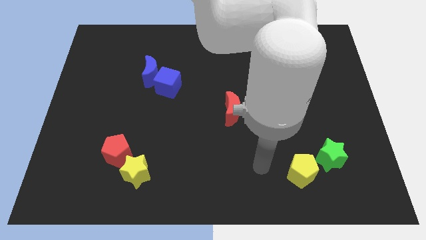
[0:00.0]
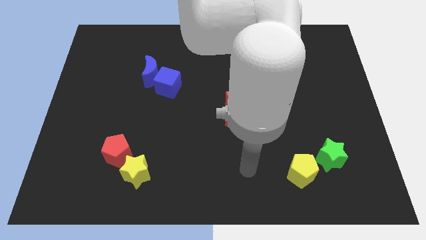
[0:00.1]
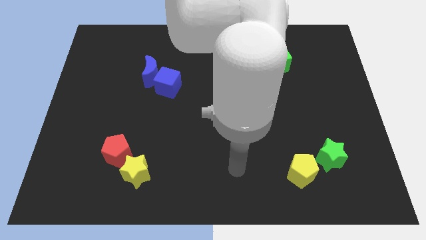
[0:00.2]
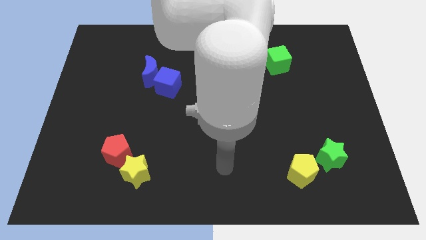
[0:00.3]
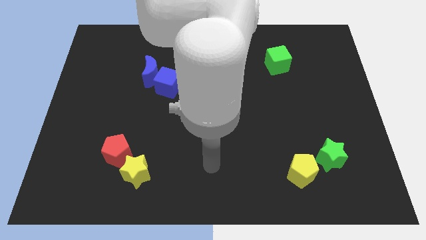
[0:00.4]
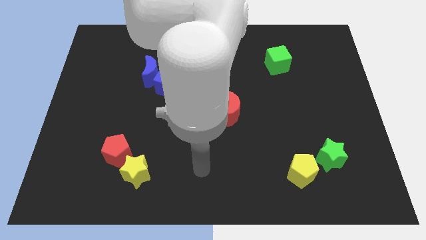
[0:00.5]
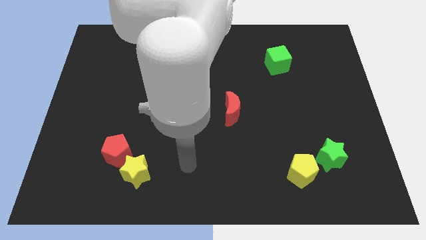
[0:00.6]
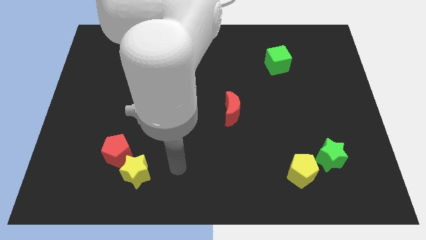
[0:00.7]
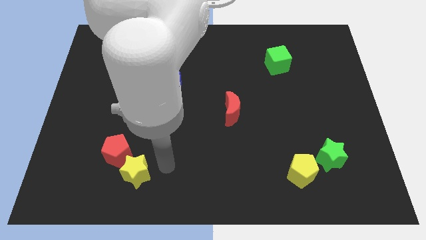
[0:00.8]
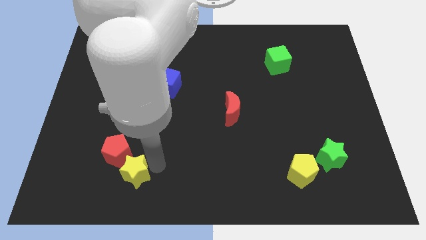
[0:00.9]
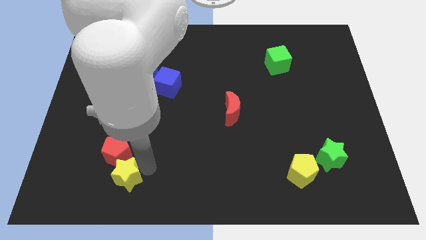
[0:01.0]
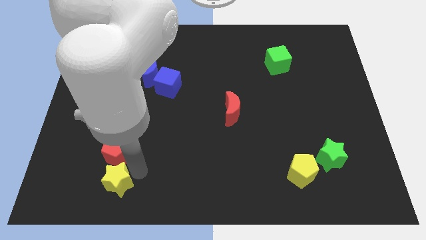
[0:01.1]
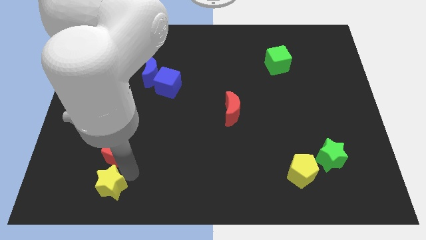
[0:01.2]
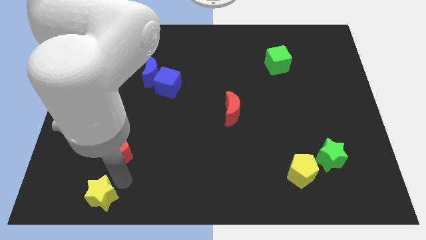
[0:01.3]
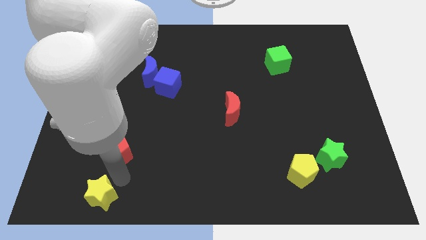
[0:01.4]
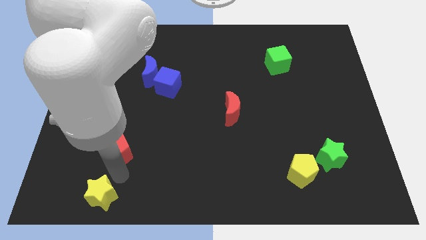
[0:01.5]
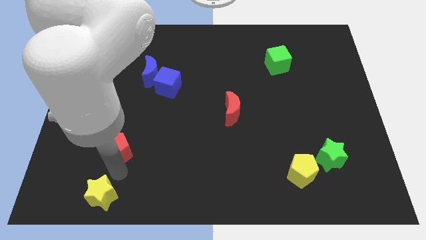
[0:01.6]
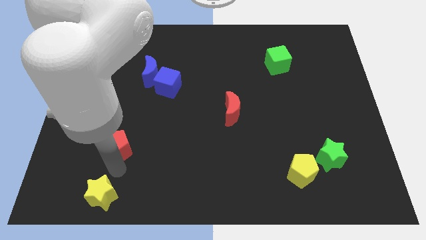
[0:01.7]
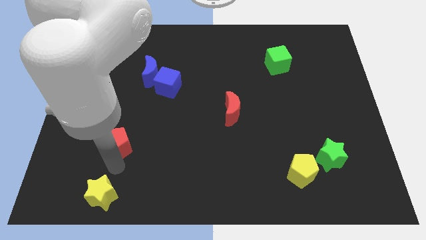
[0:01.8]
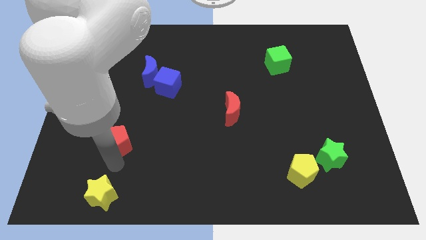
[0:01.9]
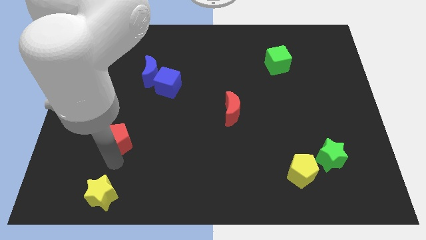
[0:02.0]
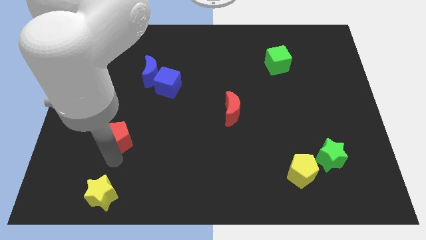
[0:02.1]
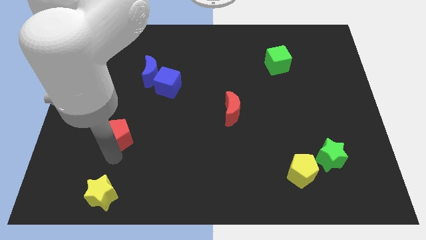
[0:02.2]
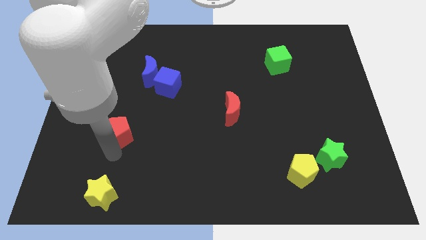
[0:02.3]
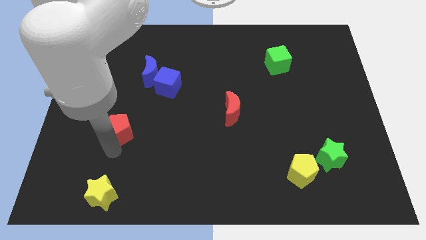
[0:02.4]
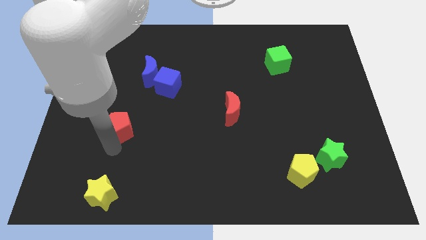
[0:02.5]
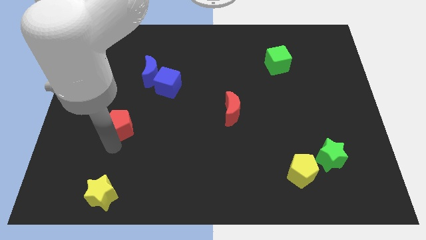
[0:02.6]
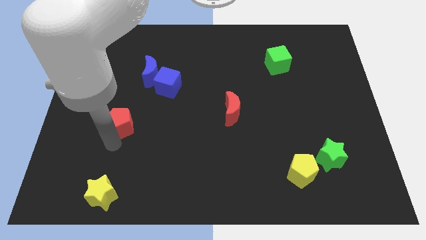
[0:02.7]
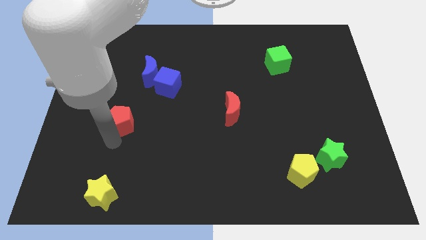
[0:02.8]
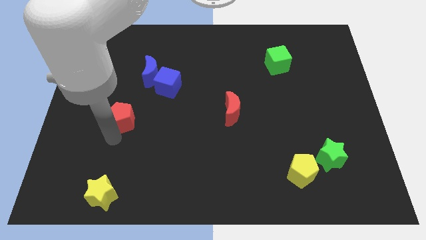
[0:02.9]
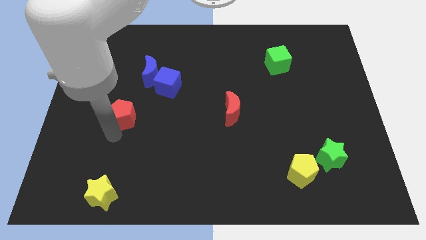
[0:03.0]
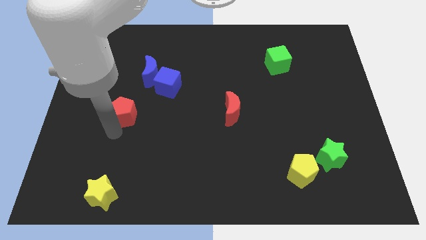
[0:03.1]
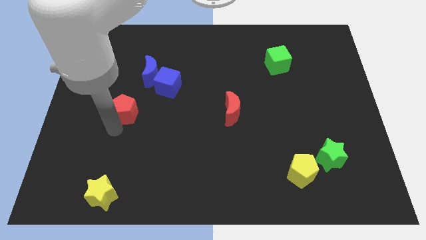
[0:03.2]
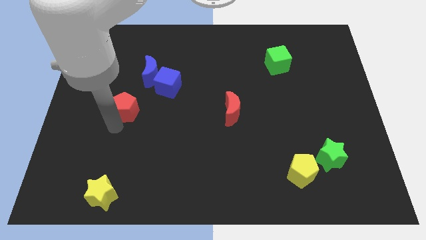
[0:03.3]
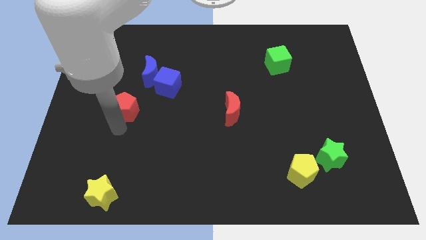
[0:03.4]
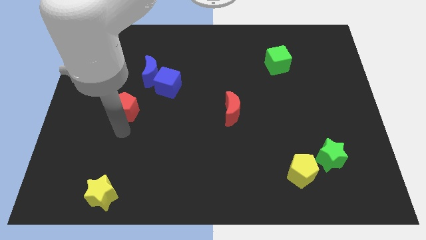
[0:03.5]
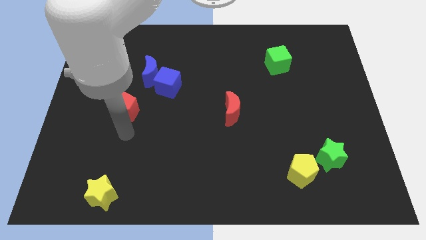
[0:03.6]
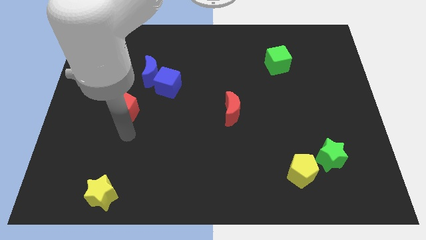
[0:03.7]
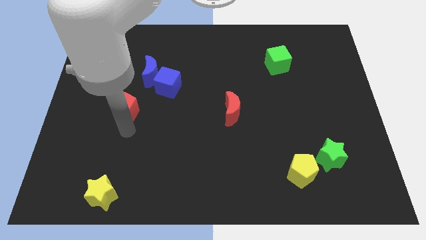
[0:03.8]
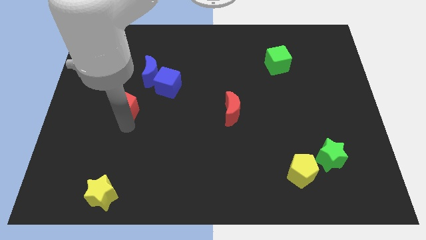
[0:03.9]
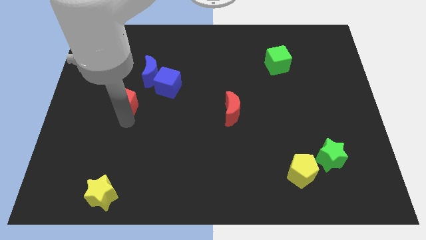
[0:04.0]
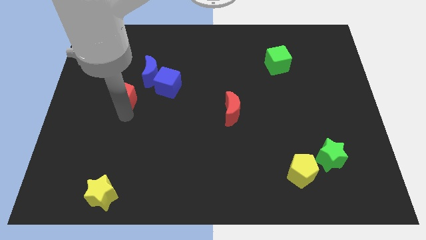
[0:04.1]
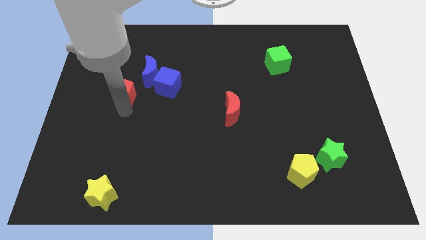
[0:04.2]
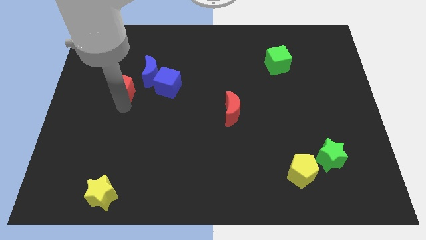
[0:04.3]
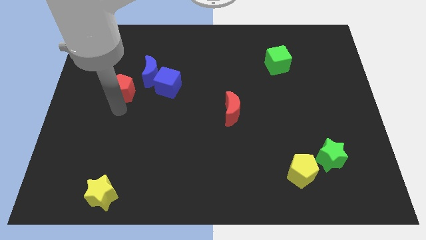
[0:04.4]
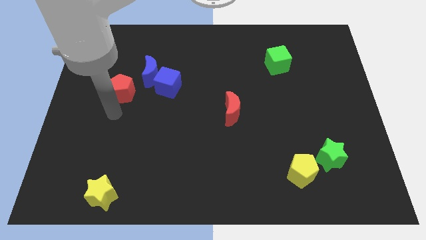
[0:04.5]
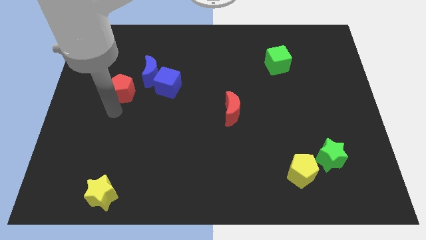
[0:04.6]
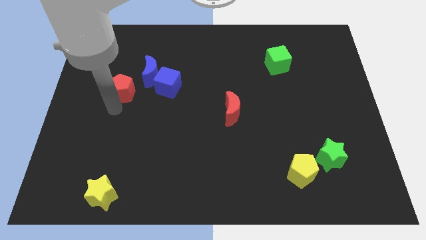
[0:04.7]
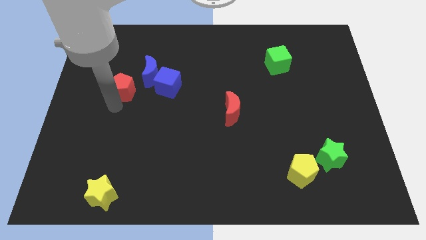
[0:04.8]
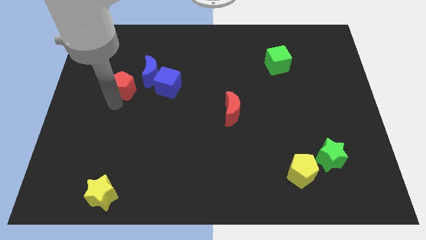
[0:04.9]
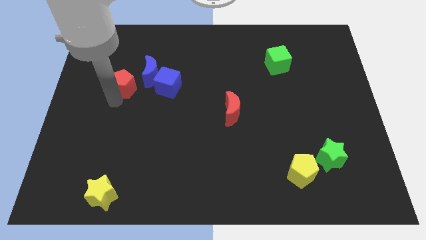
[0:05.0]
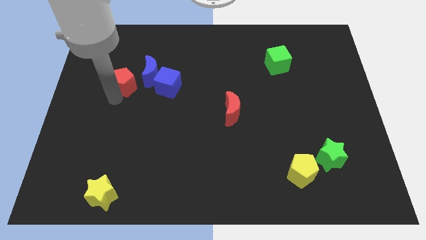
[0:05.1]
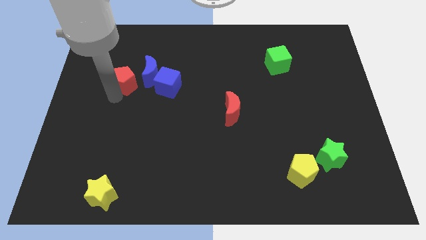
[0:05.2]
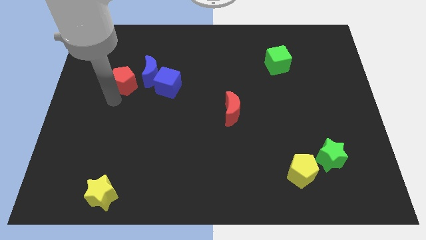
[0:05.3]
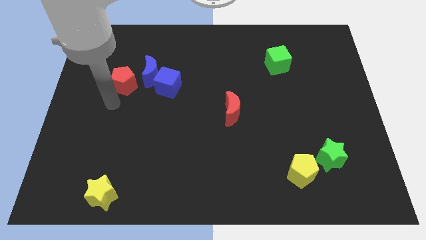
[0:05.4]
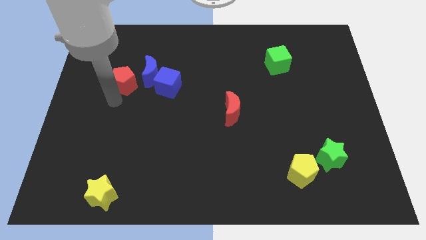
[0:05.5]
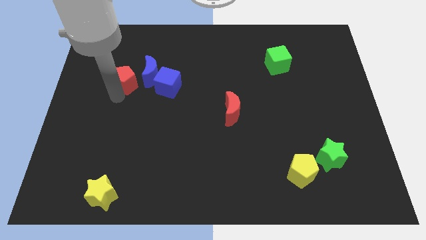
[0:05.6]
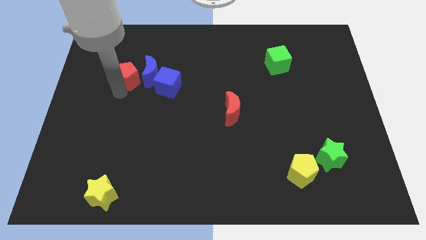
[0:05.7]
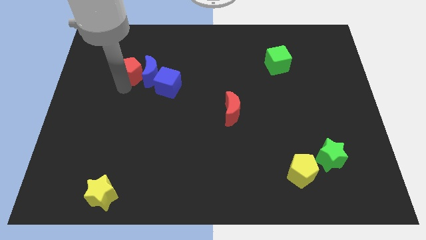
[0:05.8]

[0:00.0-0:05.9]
slide the red pentagon diagonally up and to the left of the blue moon

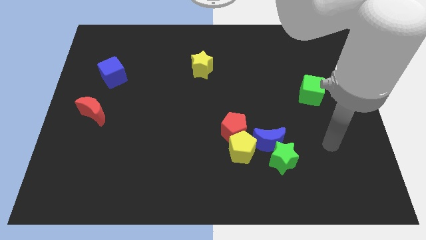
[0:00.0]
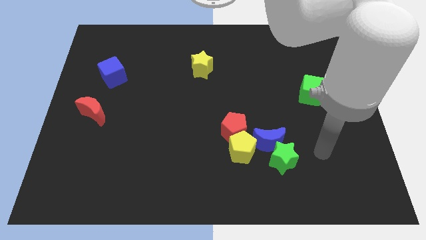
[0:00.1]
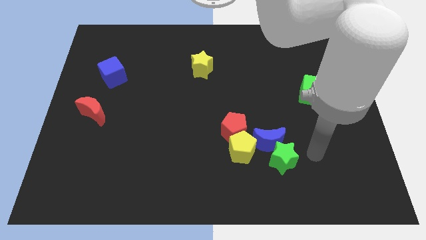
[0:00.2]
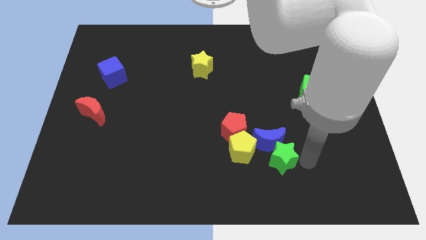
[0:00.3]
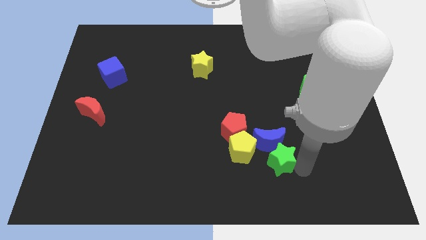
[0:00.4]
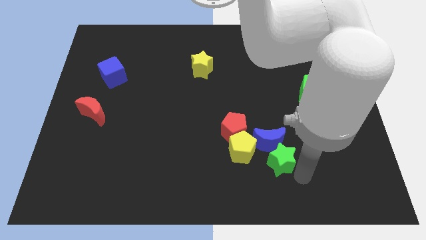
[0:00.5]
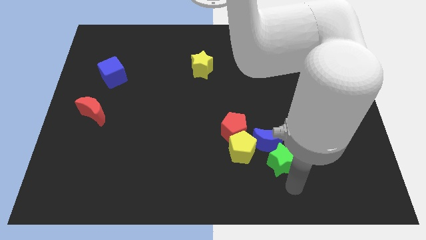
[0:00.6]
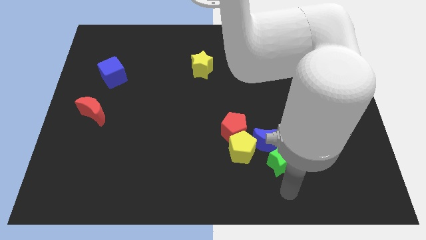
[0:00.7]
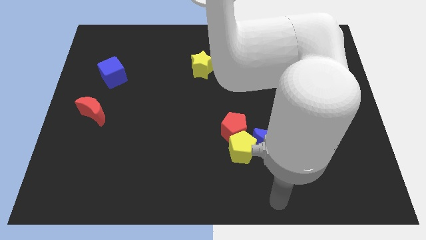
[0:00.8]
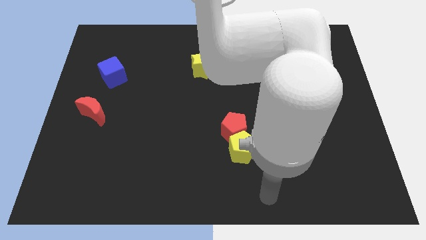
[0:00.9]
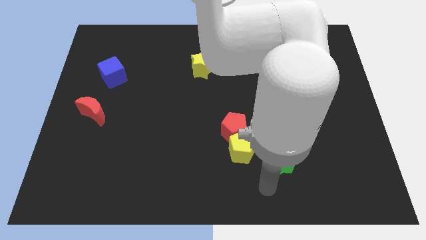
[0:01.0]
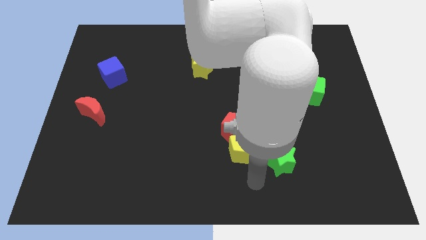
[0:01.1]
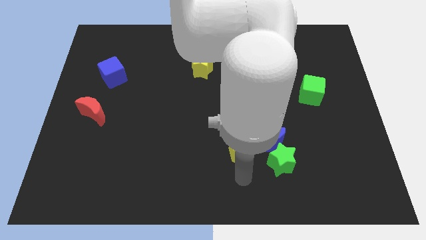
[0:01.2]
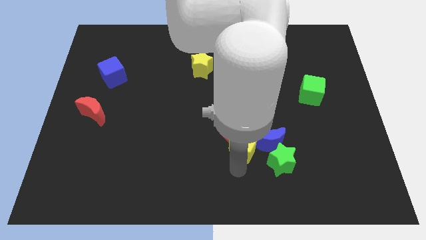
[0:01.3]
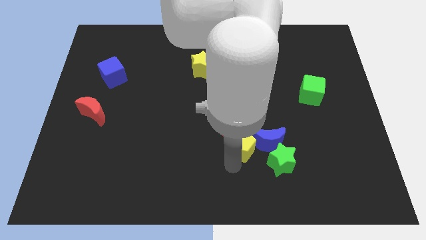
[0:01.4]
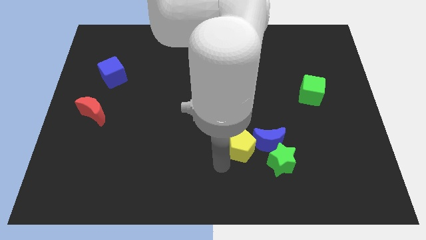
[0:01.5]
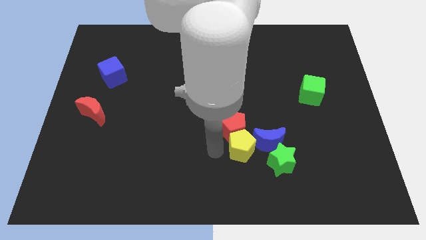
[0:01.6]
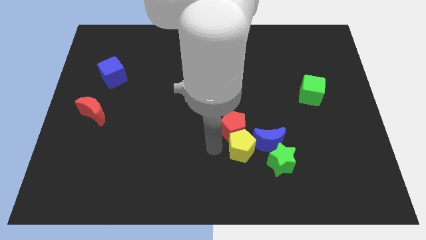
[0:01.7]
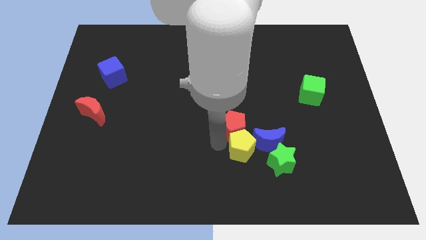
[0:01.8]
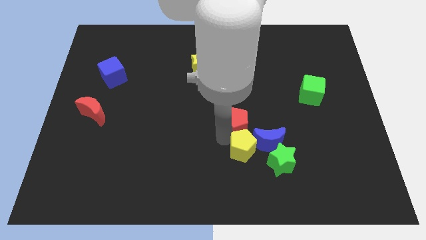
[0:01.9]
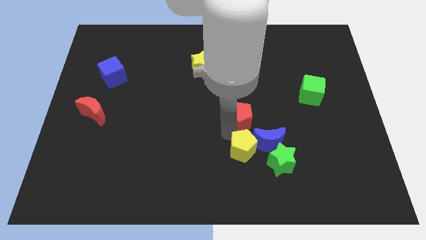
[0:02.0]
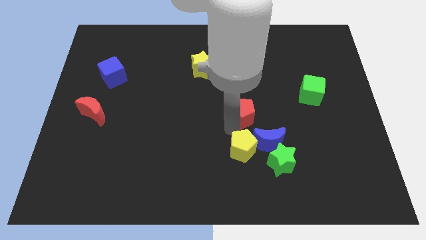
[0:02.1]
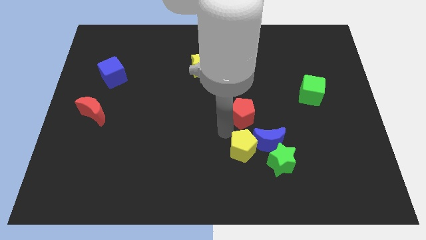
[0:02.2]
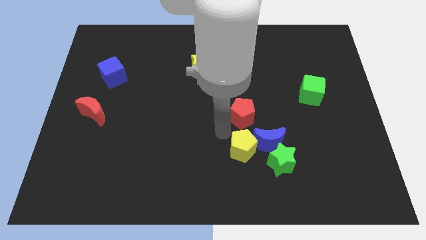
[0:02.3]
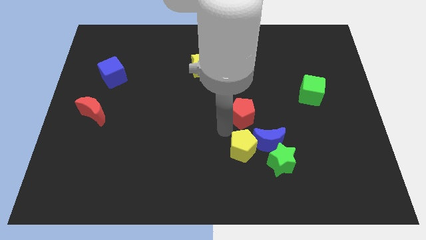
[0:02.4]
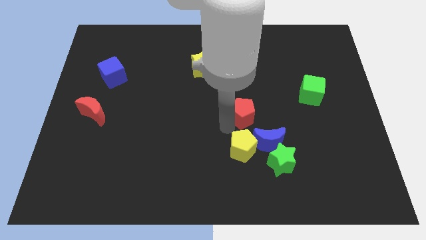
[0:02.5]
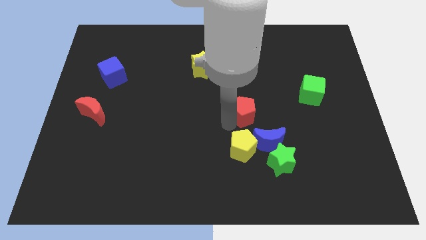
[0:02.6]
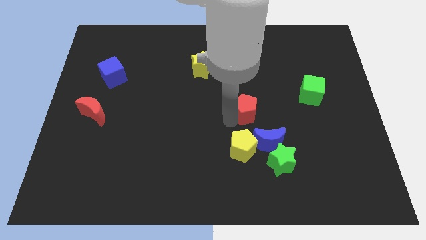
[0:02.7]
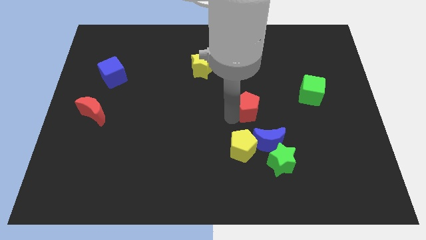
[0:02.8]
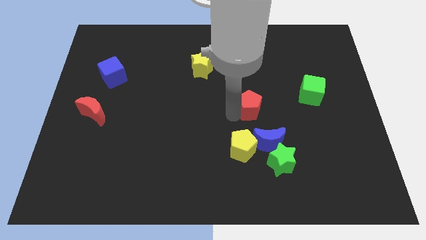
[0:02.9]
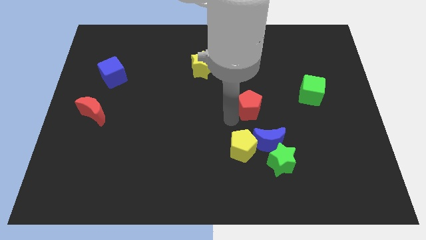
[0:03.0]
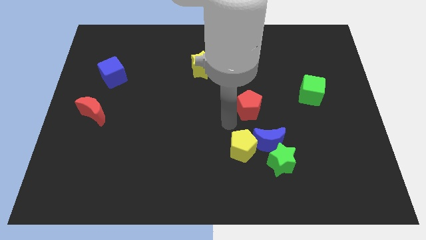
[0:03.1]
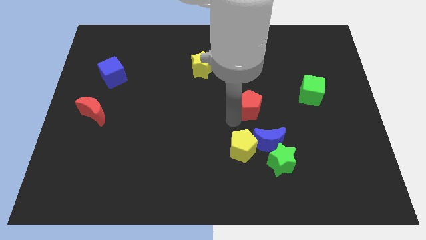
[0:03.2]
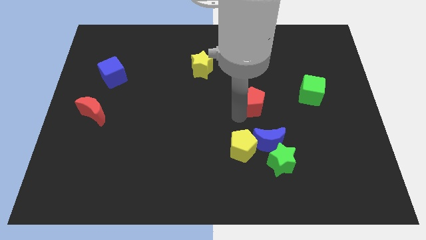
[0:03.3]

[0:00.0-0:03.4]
slide the red pentagon to the left side of the green cube
